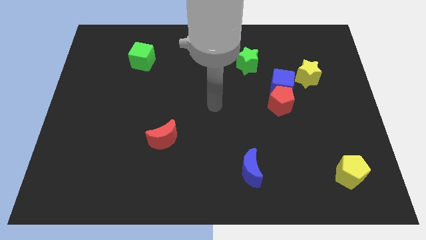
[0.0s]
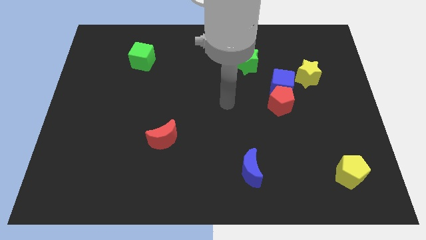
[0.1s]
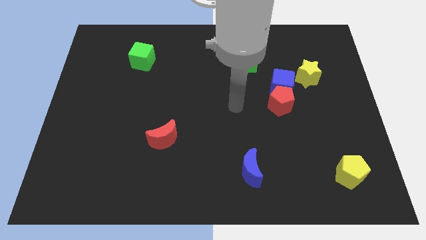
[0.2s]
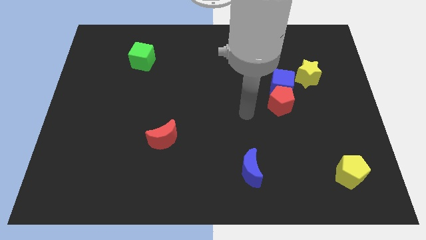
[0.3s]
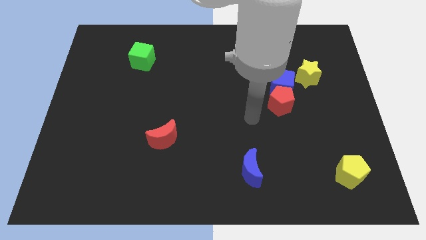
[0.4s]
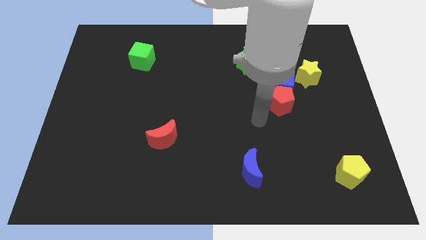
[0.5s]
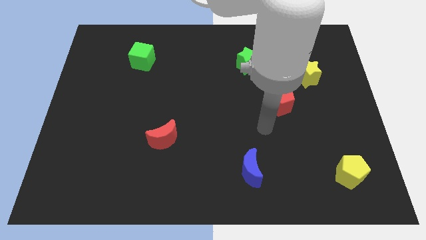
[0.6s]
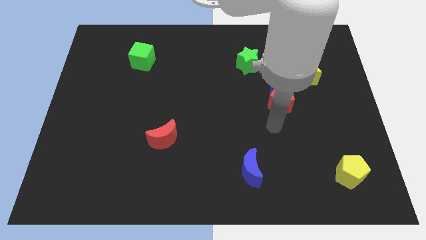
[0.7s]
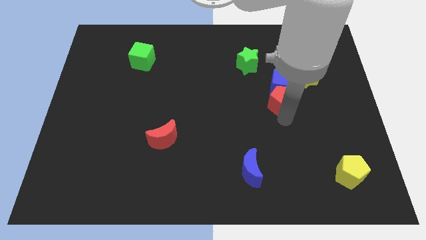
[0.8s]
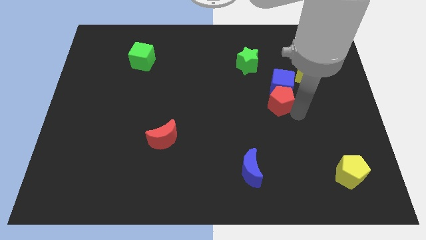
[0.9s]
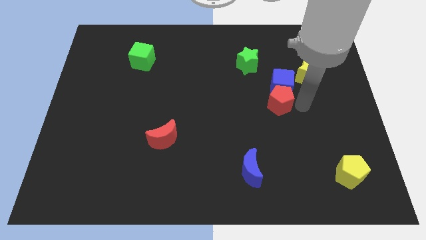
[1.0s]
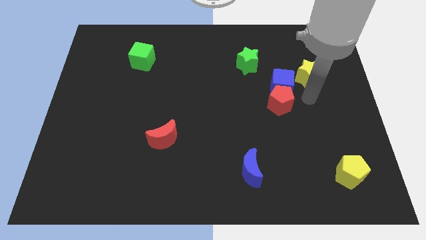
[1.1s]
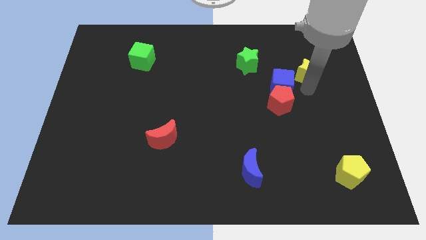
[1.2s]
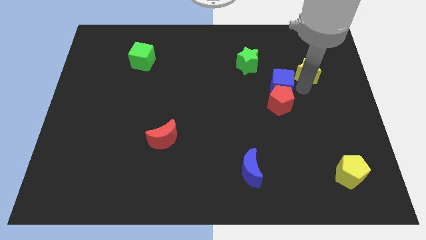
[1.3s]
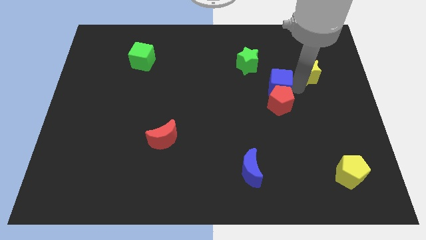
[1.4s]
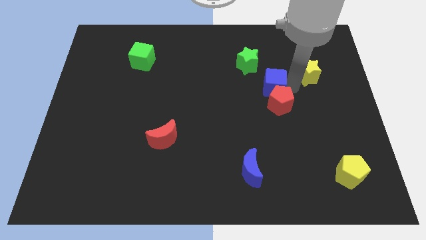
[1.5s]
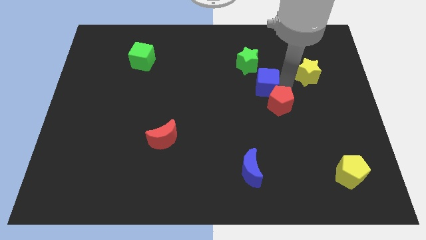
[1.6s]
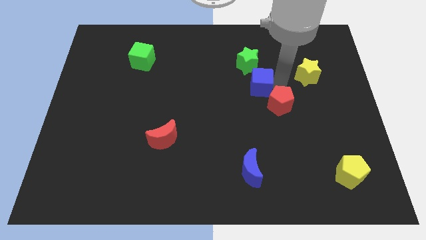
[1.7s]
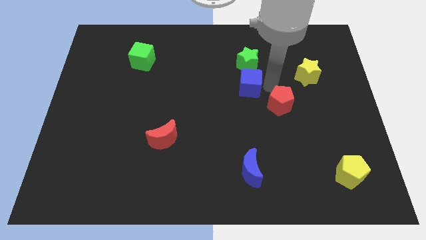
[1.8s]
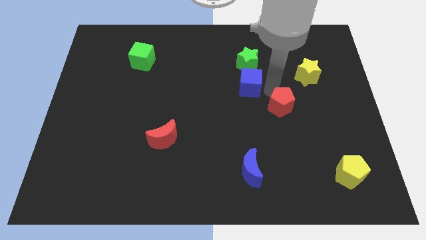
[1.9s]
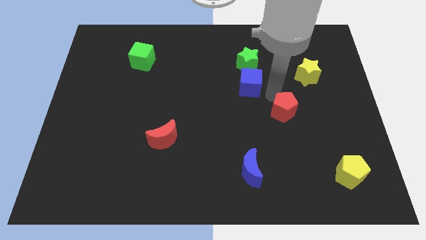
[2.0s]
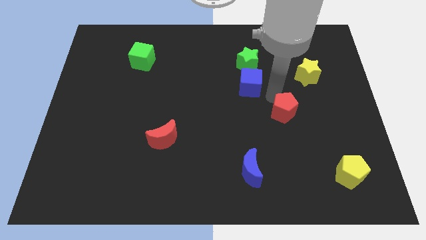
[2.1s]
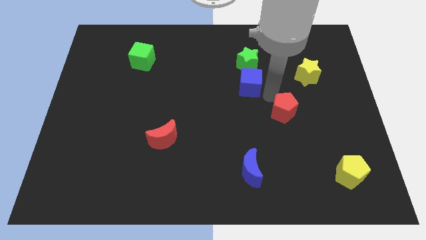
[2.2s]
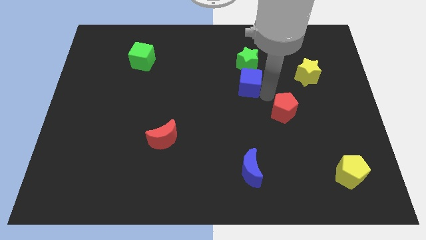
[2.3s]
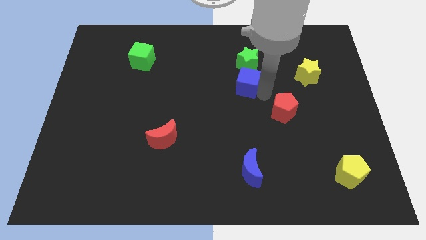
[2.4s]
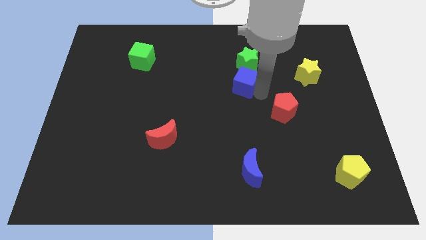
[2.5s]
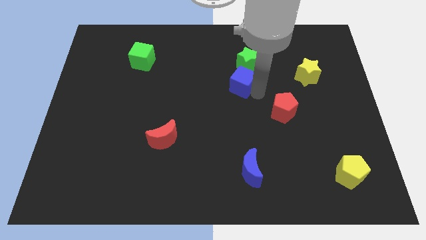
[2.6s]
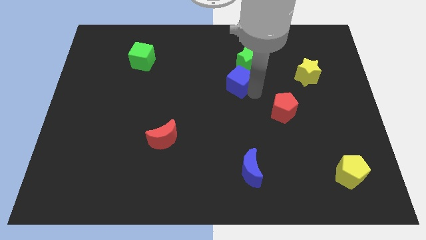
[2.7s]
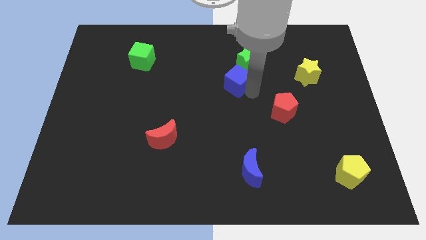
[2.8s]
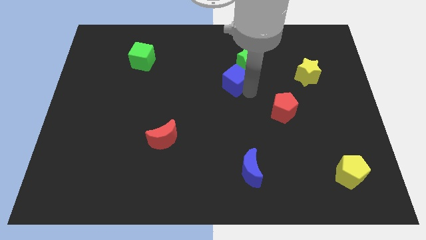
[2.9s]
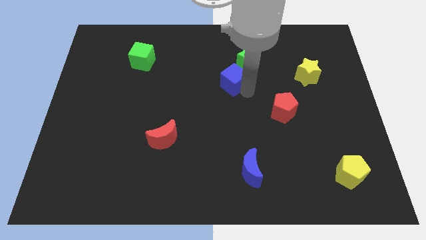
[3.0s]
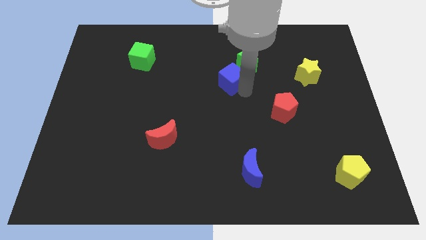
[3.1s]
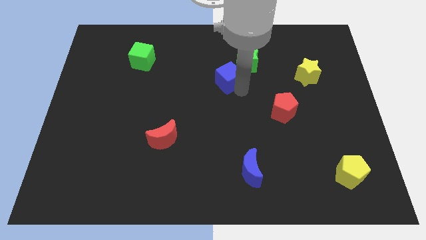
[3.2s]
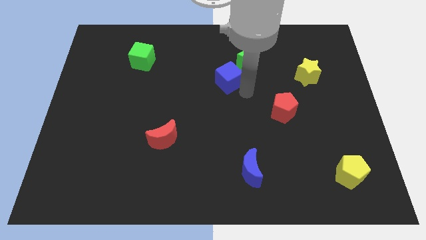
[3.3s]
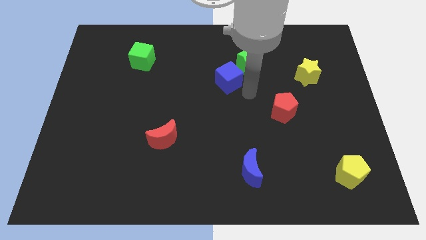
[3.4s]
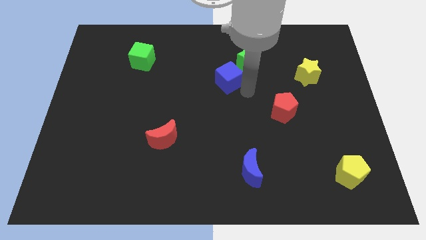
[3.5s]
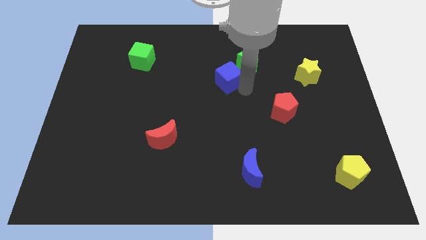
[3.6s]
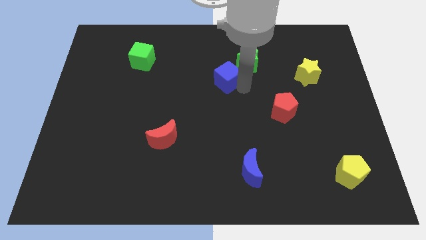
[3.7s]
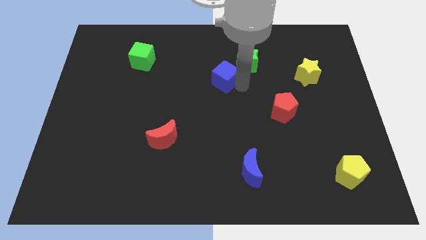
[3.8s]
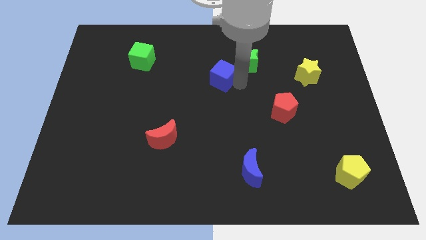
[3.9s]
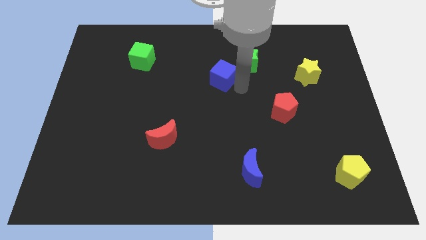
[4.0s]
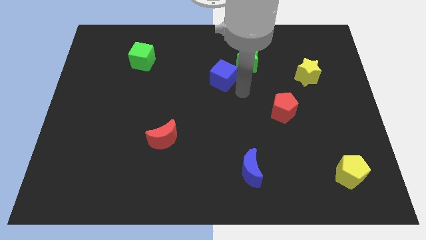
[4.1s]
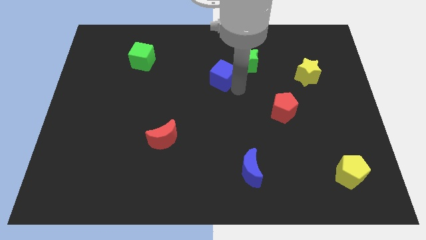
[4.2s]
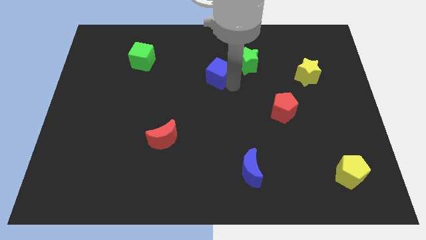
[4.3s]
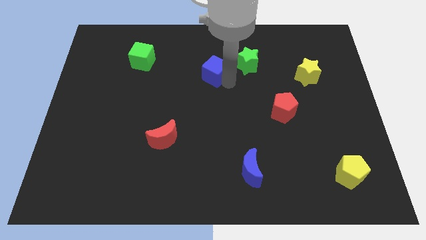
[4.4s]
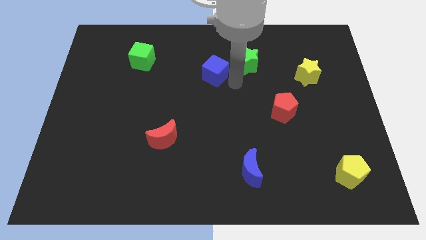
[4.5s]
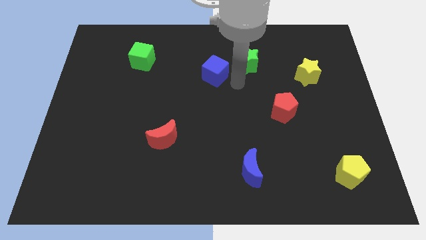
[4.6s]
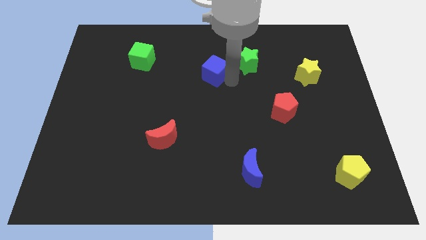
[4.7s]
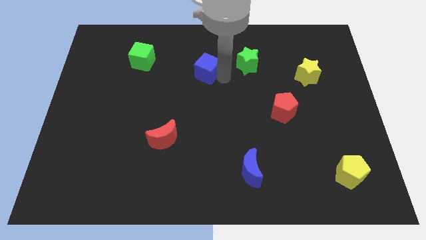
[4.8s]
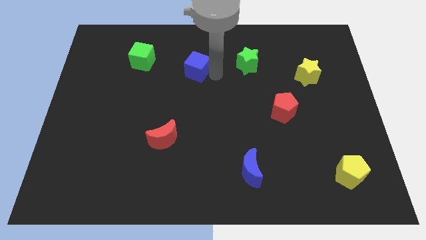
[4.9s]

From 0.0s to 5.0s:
slide the blue cube just right of the green cube

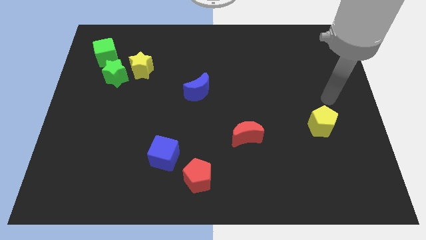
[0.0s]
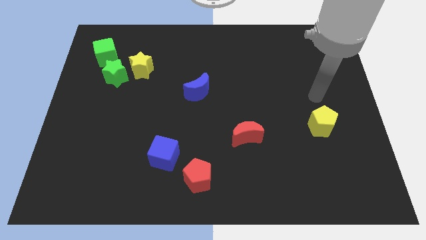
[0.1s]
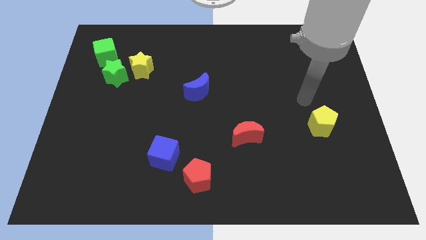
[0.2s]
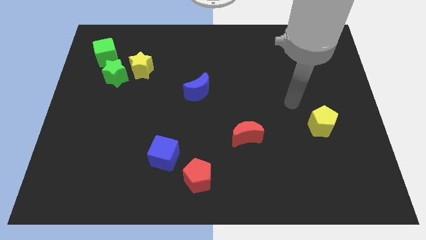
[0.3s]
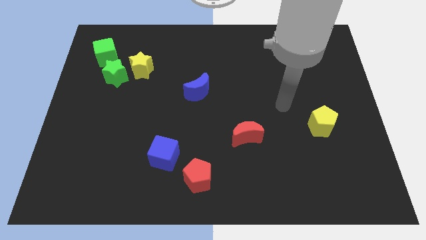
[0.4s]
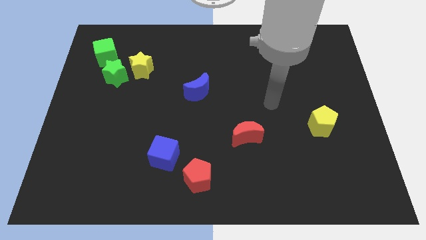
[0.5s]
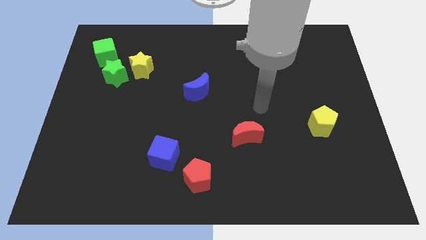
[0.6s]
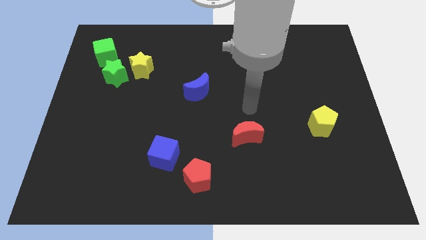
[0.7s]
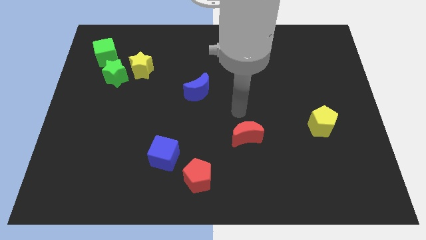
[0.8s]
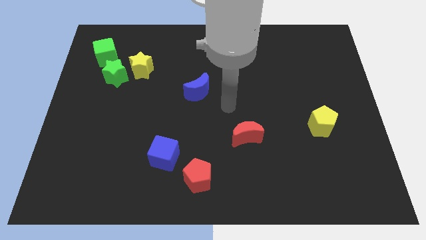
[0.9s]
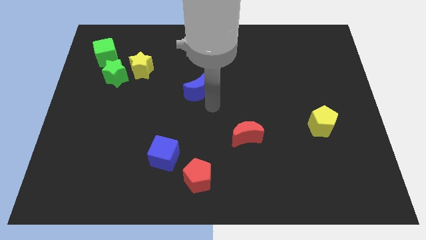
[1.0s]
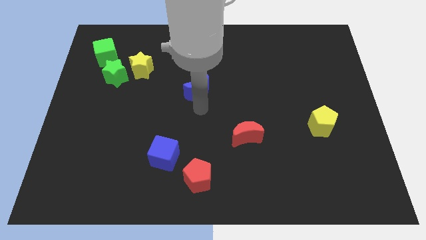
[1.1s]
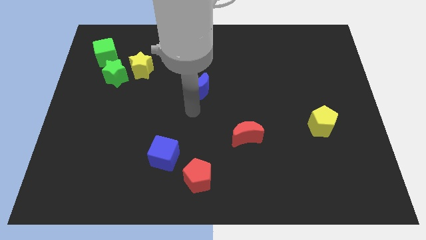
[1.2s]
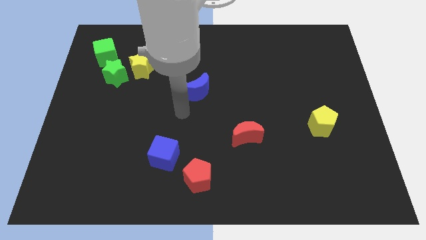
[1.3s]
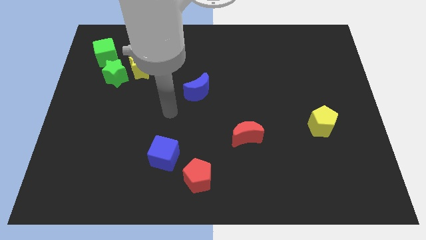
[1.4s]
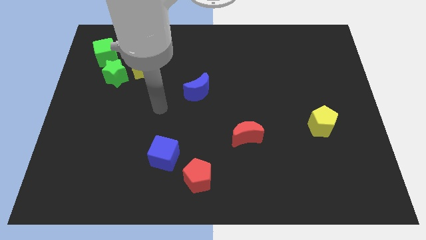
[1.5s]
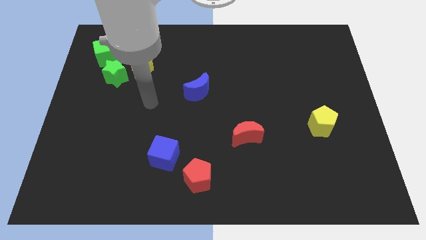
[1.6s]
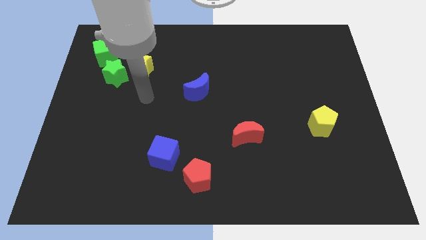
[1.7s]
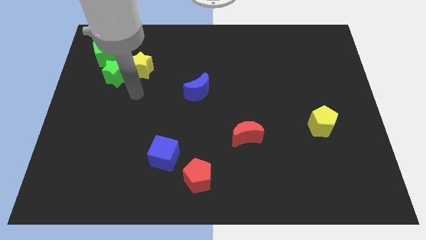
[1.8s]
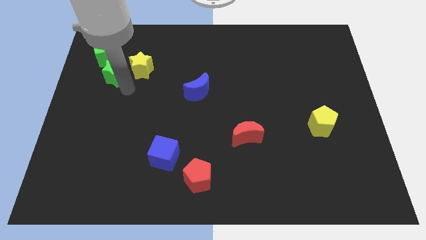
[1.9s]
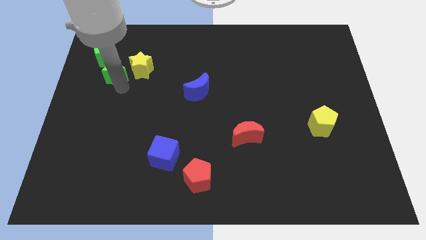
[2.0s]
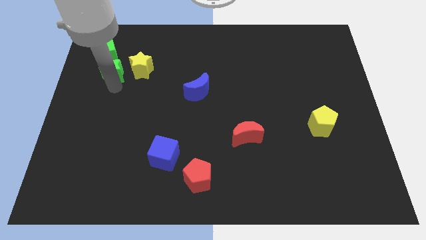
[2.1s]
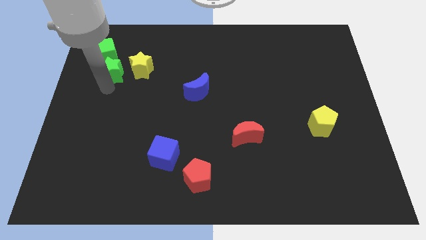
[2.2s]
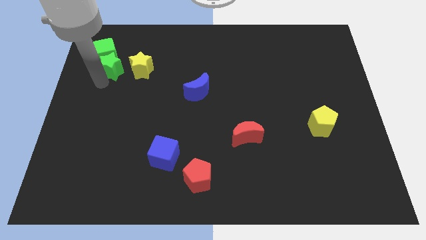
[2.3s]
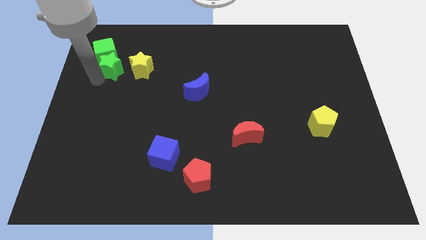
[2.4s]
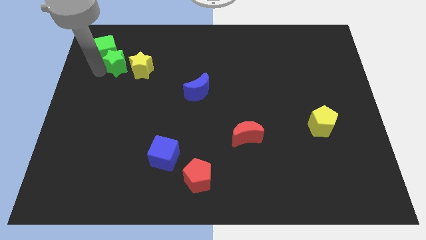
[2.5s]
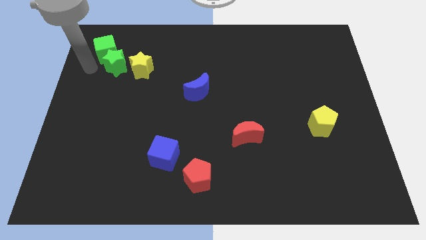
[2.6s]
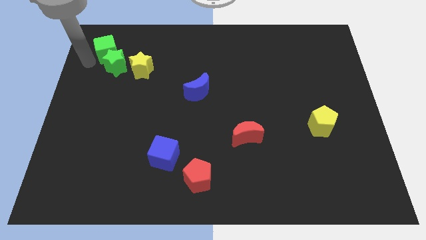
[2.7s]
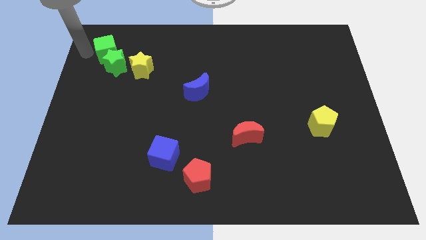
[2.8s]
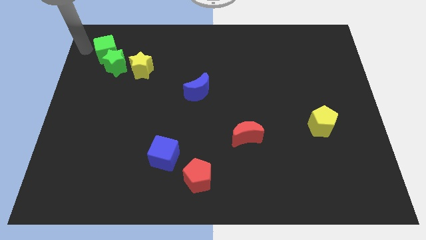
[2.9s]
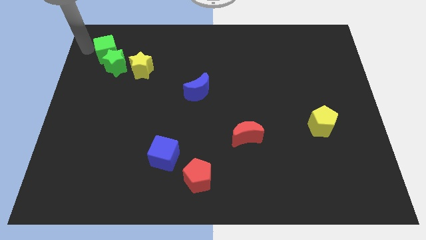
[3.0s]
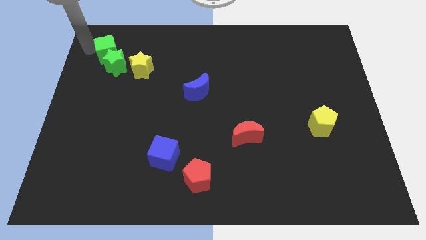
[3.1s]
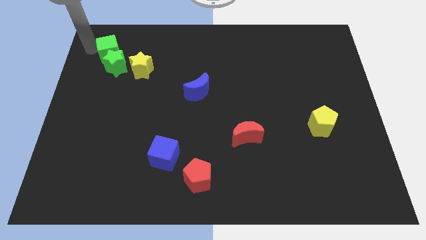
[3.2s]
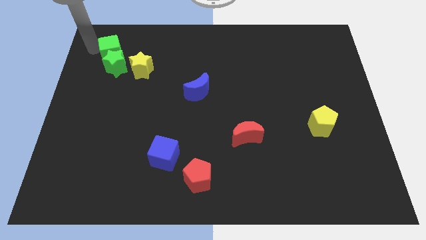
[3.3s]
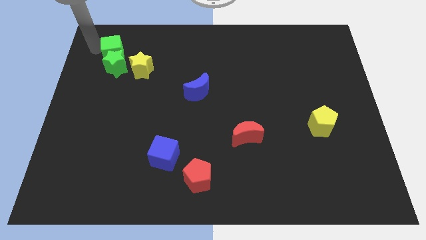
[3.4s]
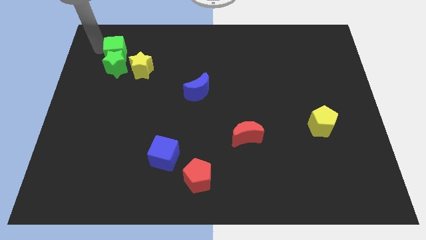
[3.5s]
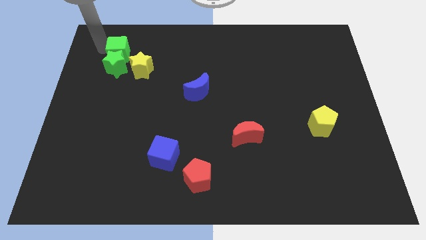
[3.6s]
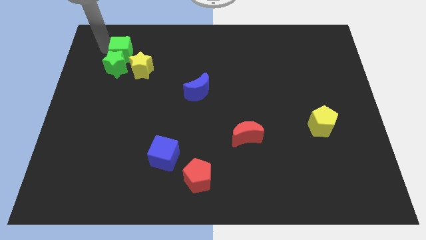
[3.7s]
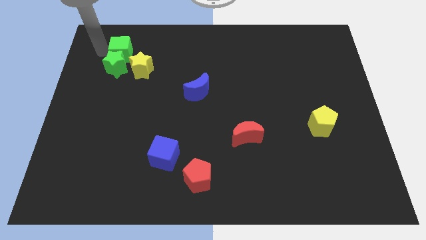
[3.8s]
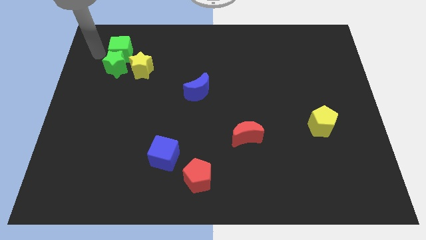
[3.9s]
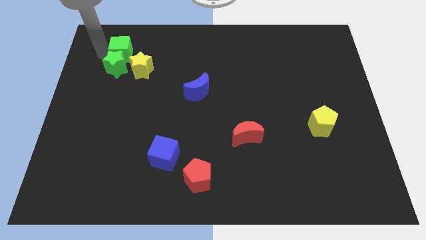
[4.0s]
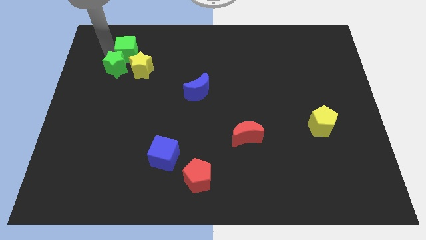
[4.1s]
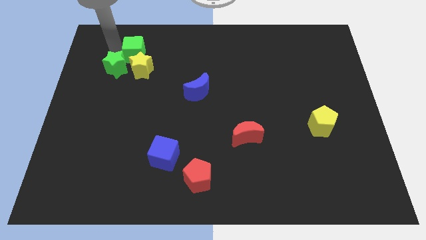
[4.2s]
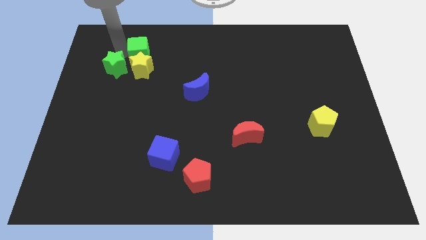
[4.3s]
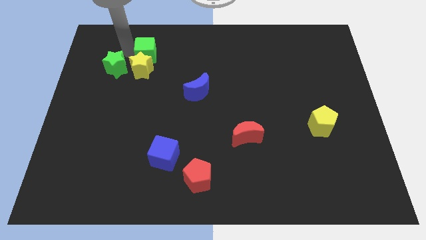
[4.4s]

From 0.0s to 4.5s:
push the green cube right of the green star
